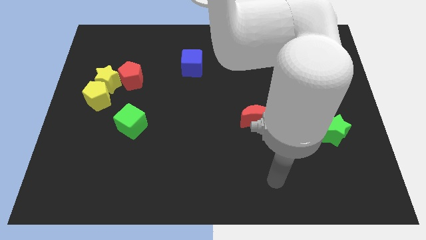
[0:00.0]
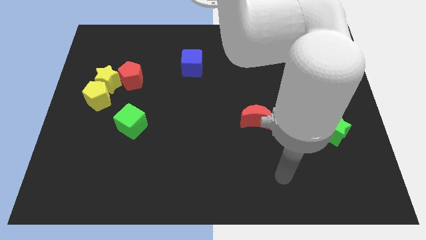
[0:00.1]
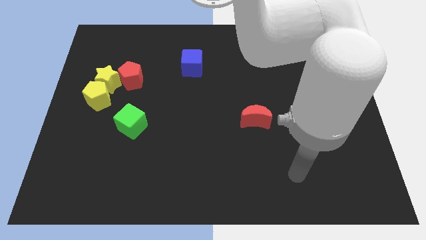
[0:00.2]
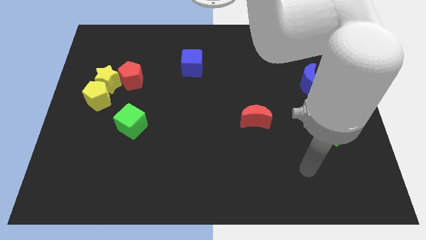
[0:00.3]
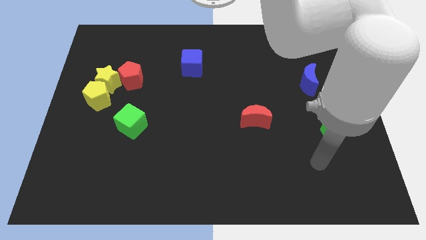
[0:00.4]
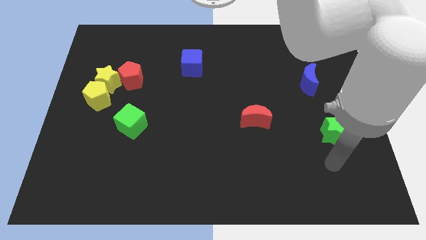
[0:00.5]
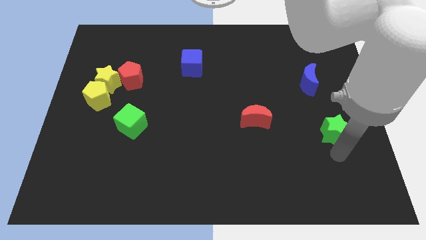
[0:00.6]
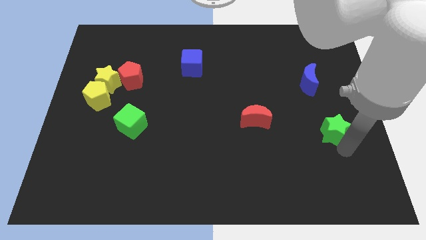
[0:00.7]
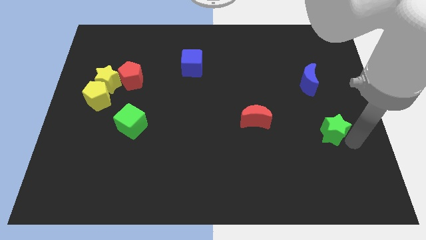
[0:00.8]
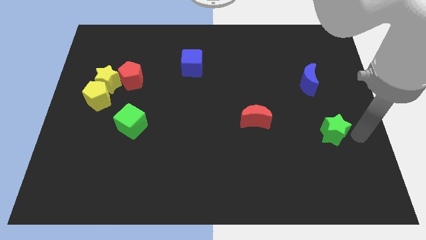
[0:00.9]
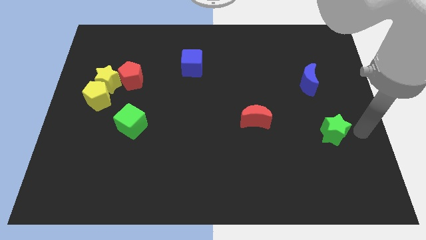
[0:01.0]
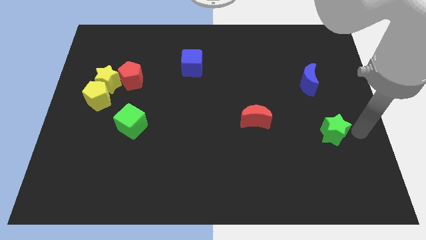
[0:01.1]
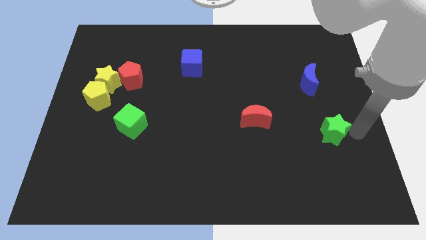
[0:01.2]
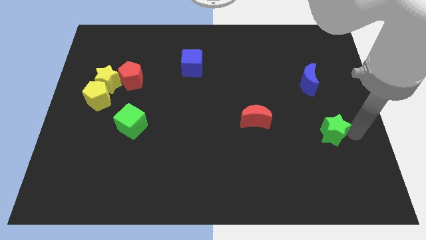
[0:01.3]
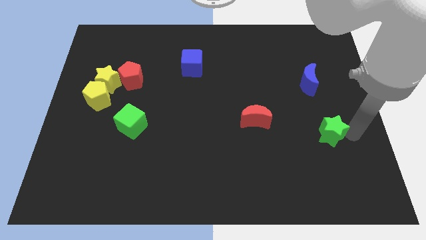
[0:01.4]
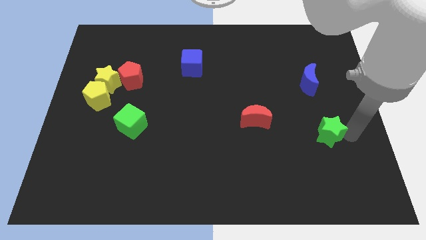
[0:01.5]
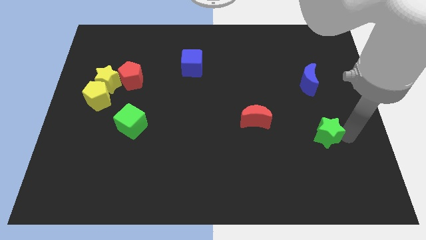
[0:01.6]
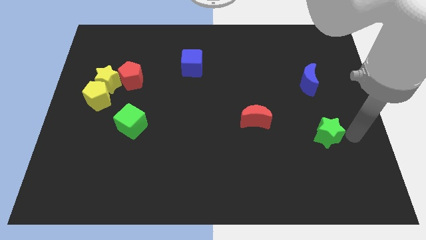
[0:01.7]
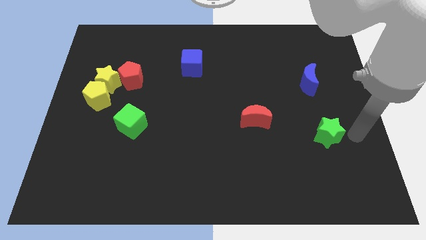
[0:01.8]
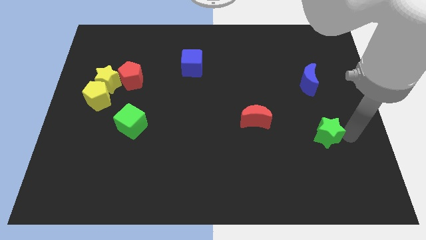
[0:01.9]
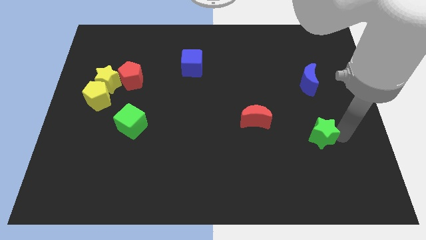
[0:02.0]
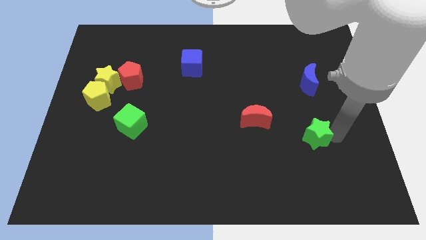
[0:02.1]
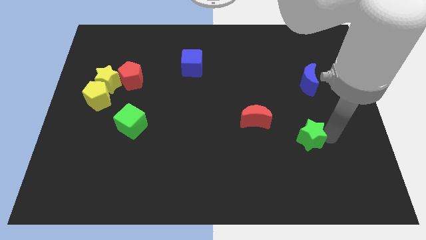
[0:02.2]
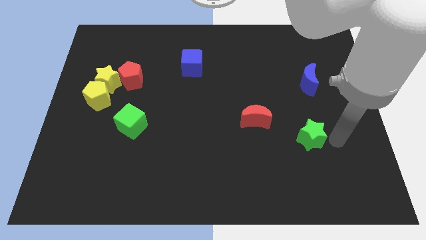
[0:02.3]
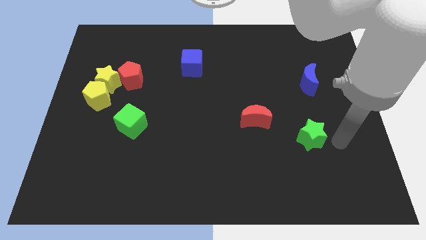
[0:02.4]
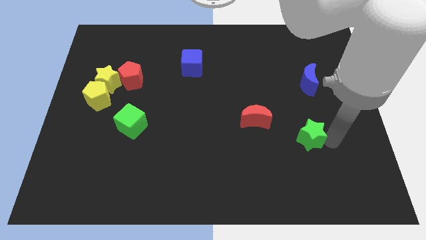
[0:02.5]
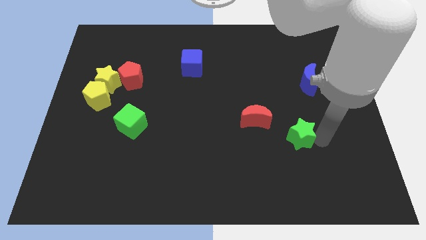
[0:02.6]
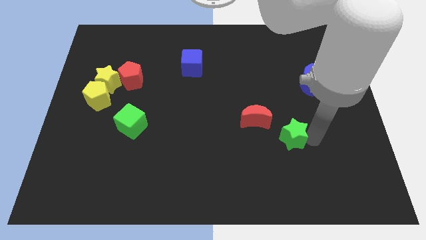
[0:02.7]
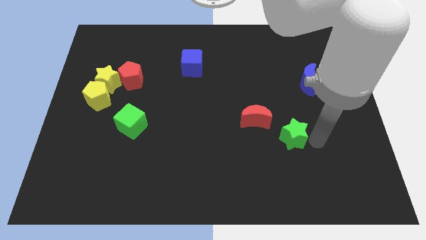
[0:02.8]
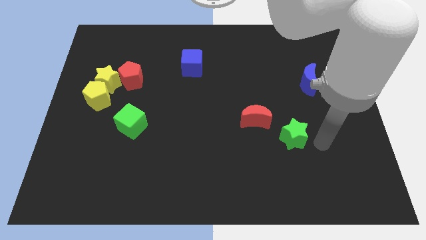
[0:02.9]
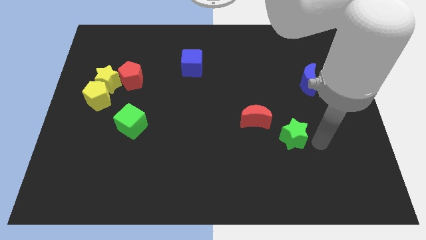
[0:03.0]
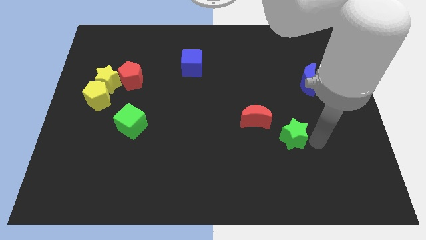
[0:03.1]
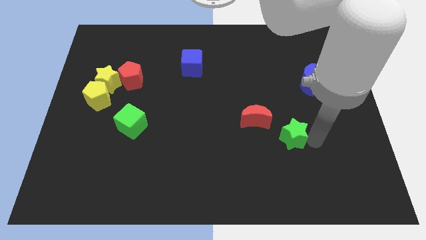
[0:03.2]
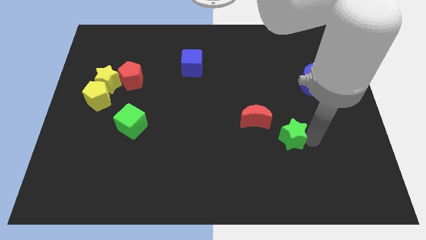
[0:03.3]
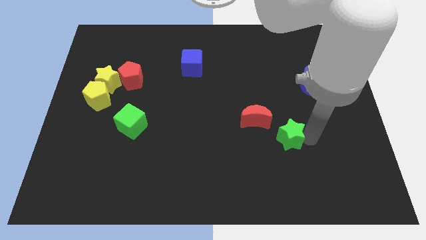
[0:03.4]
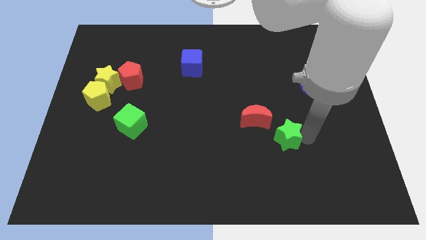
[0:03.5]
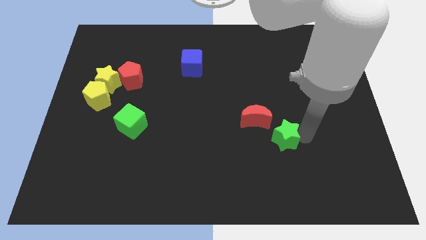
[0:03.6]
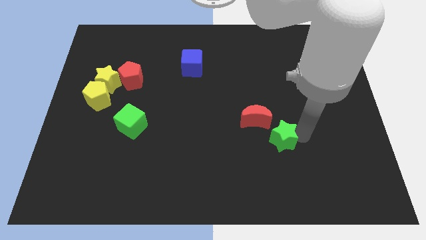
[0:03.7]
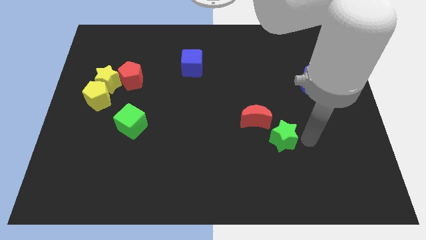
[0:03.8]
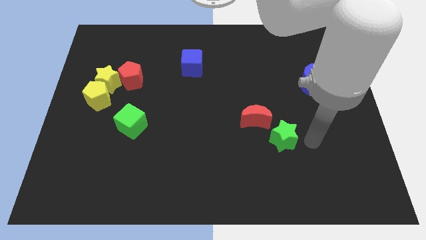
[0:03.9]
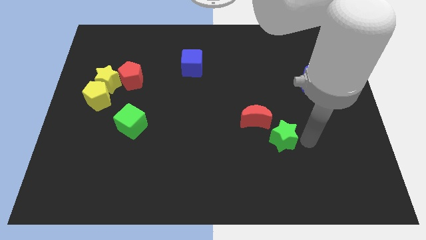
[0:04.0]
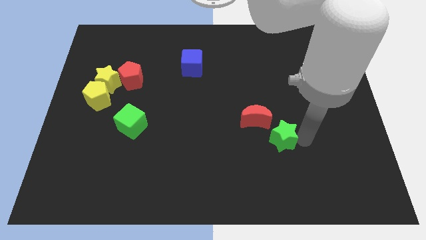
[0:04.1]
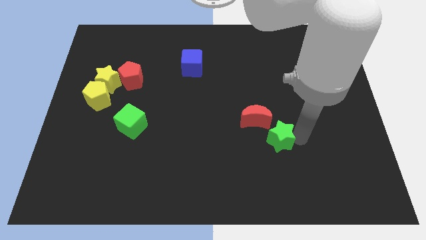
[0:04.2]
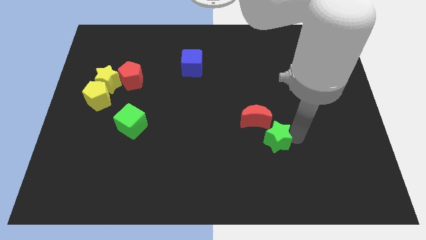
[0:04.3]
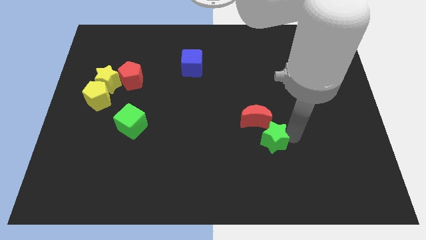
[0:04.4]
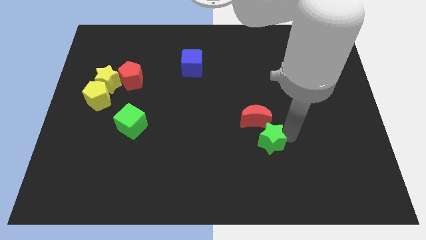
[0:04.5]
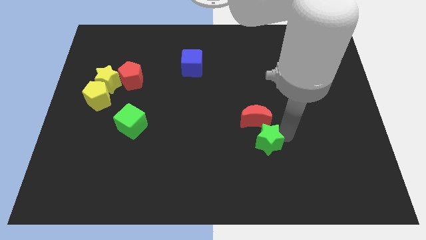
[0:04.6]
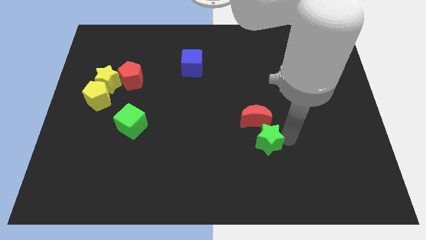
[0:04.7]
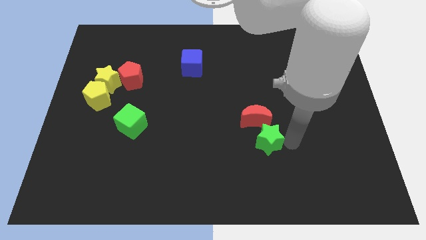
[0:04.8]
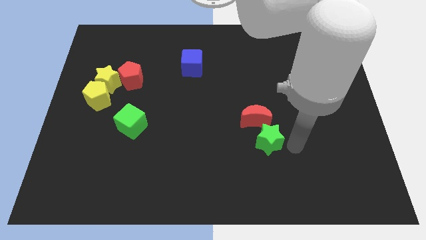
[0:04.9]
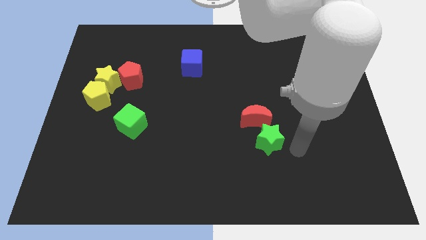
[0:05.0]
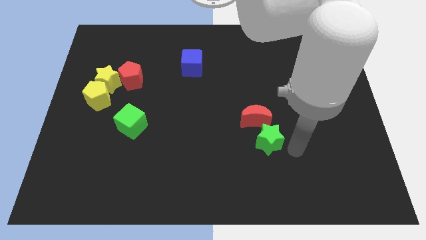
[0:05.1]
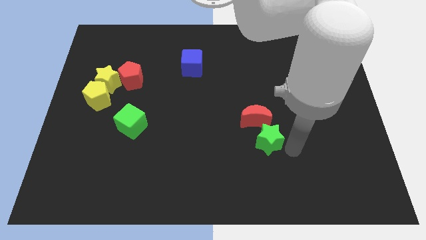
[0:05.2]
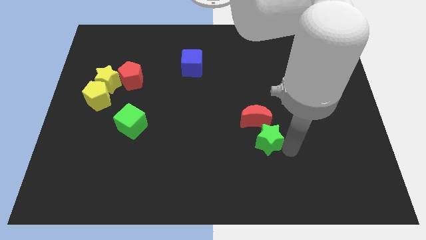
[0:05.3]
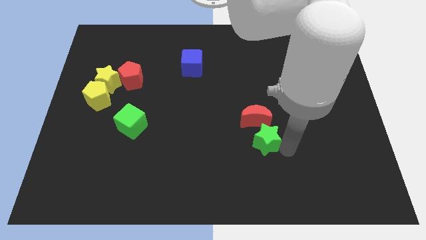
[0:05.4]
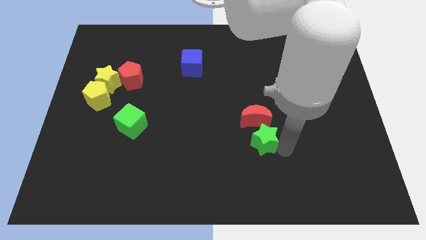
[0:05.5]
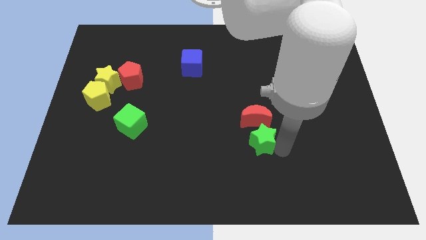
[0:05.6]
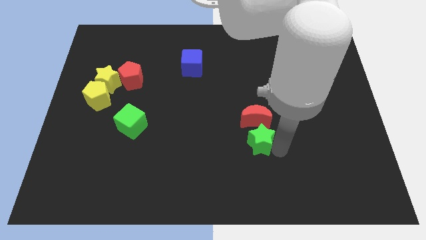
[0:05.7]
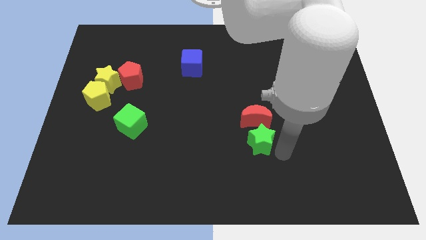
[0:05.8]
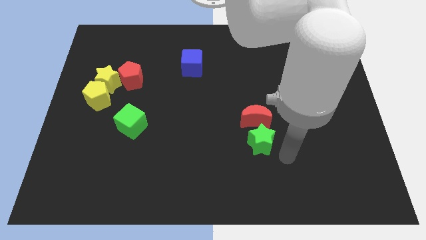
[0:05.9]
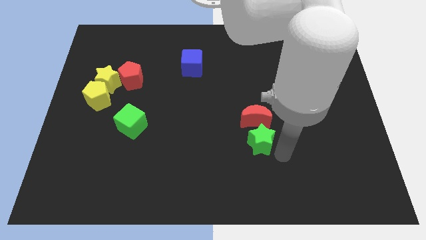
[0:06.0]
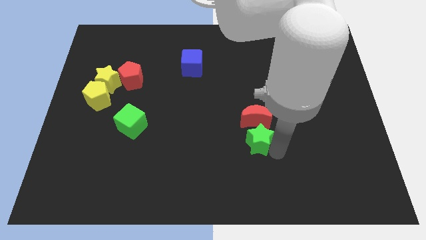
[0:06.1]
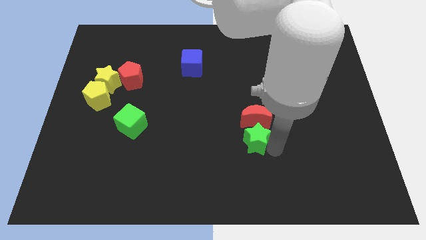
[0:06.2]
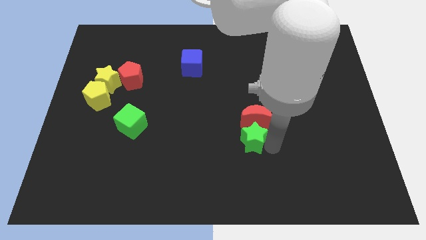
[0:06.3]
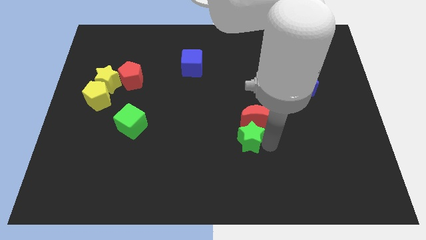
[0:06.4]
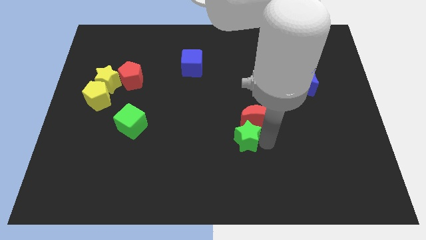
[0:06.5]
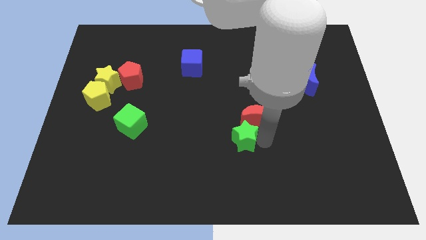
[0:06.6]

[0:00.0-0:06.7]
move the green star to the left

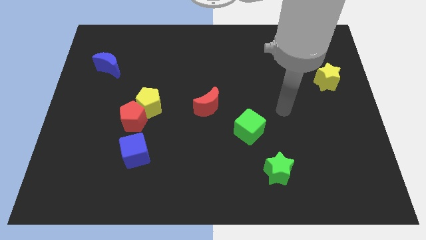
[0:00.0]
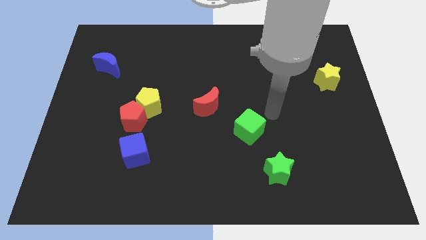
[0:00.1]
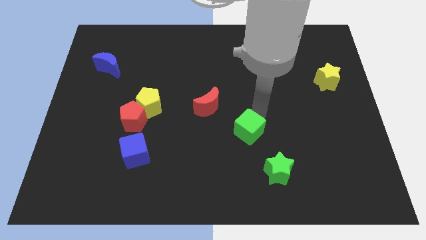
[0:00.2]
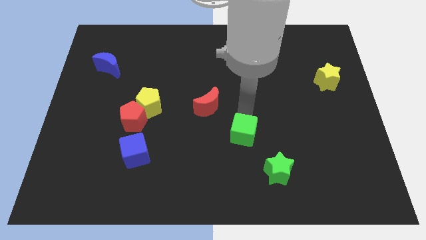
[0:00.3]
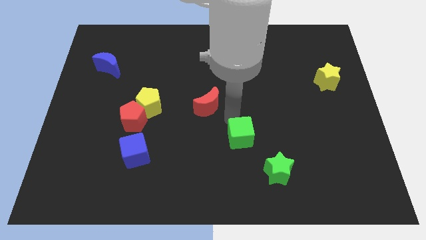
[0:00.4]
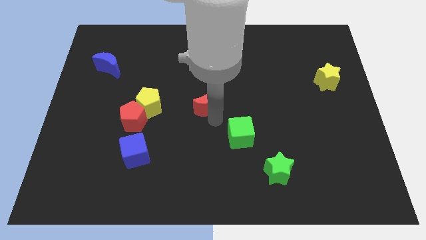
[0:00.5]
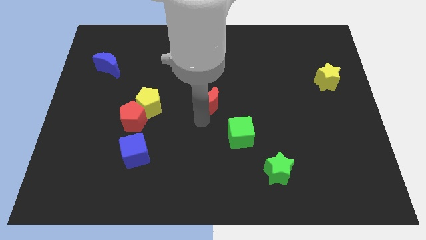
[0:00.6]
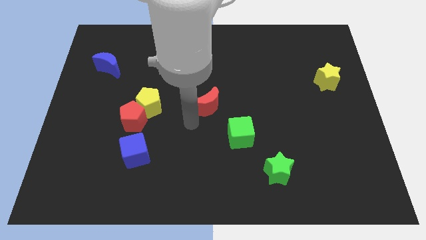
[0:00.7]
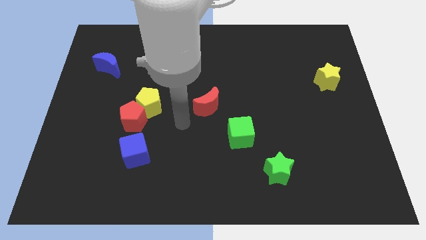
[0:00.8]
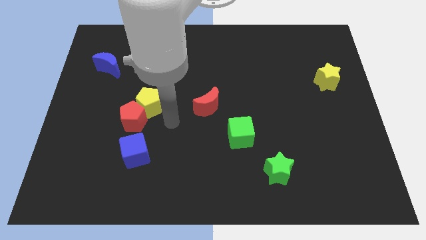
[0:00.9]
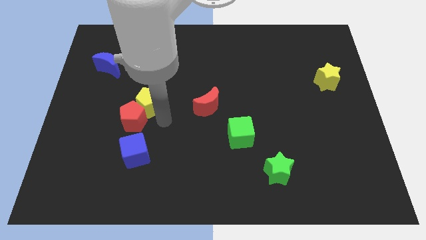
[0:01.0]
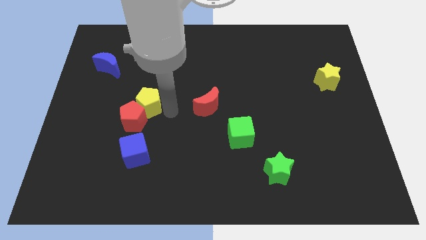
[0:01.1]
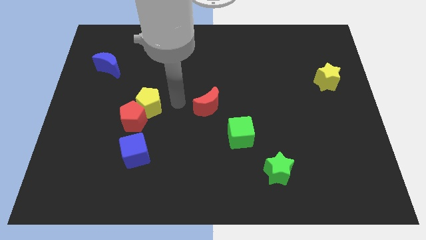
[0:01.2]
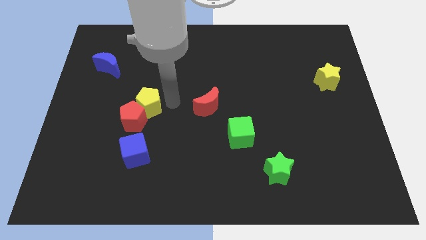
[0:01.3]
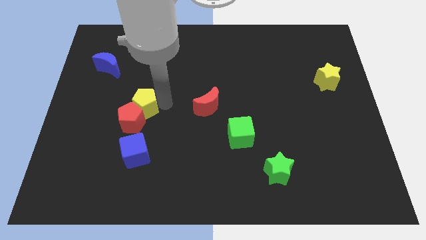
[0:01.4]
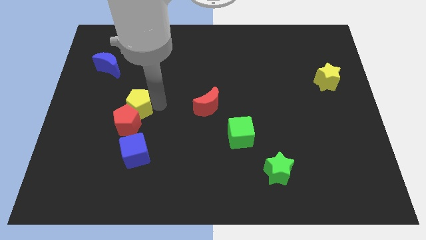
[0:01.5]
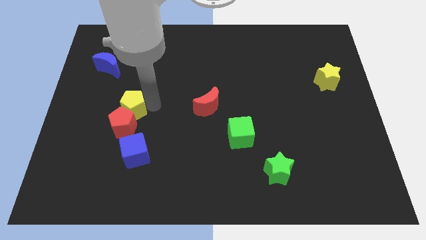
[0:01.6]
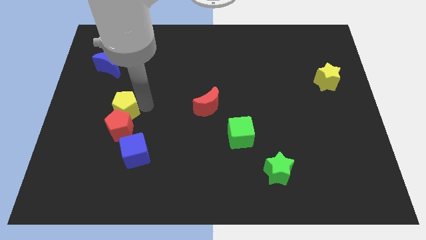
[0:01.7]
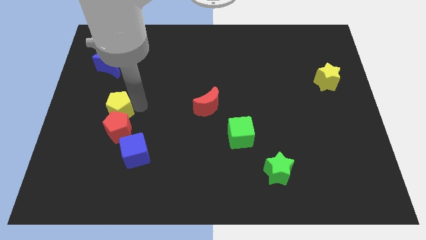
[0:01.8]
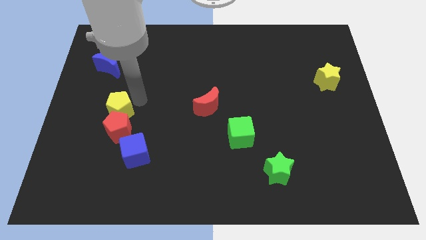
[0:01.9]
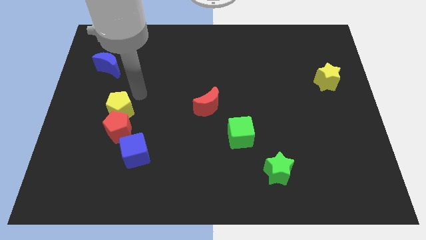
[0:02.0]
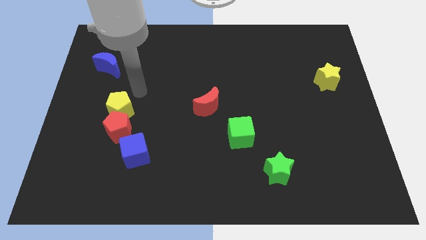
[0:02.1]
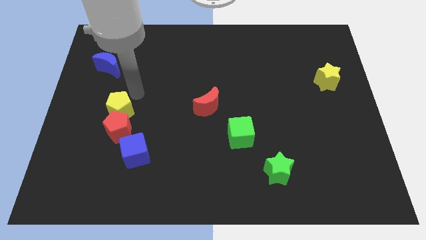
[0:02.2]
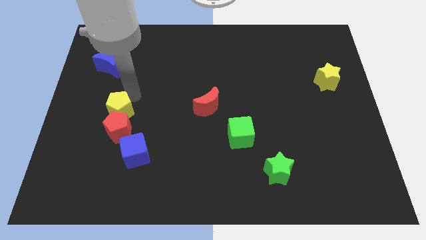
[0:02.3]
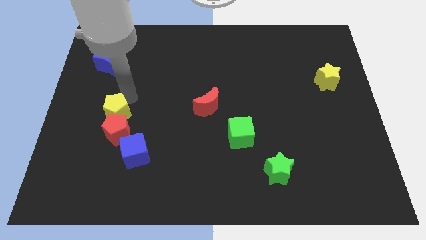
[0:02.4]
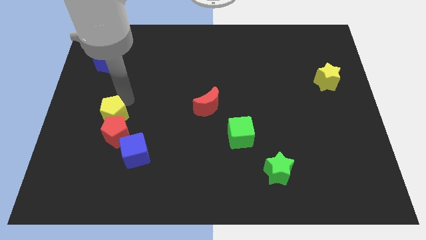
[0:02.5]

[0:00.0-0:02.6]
slightly push the yellow pentagon diagonally downwards and left
